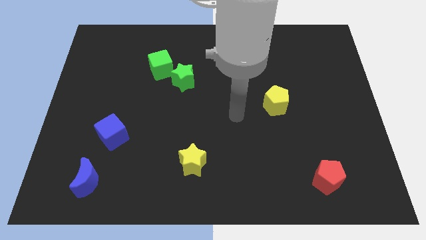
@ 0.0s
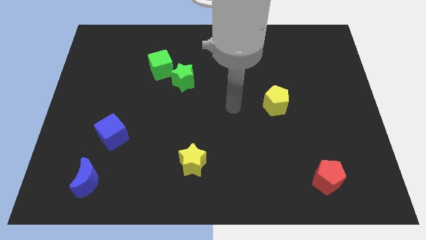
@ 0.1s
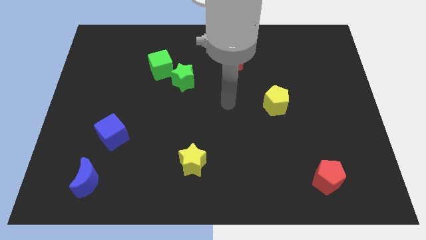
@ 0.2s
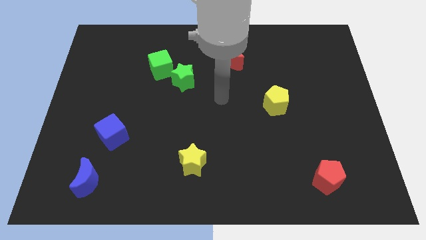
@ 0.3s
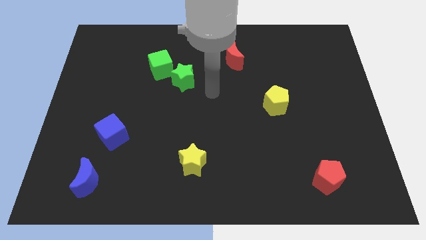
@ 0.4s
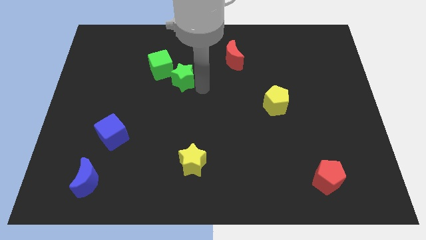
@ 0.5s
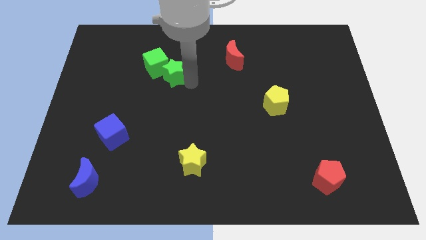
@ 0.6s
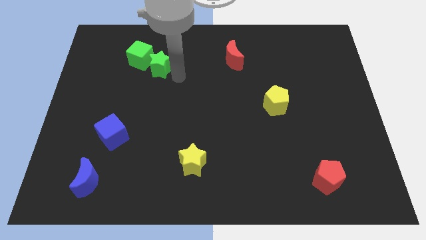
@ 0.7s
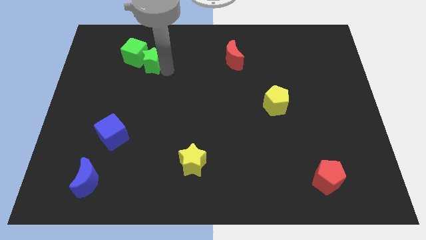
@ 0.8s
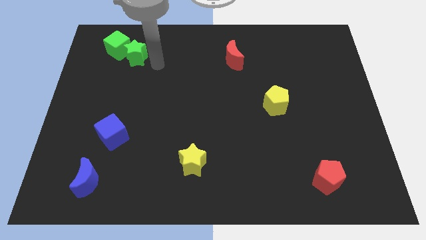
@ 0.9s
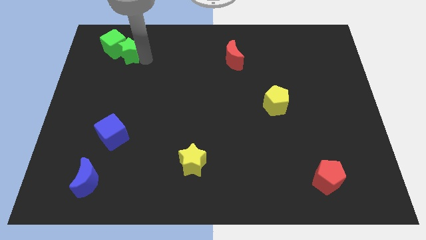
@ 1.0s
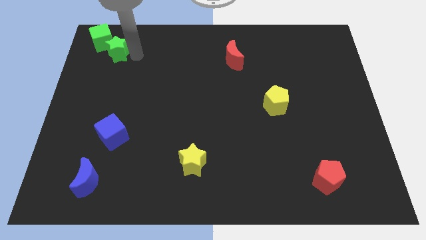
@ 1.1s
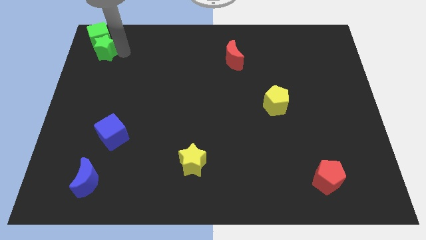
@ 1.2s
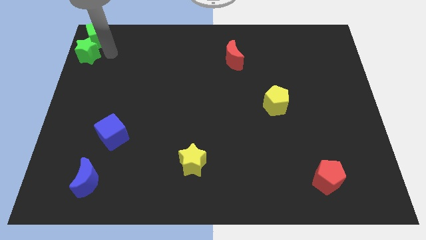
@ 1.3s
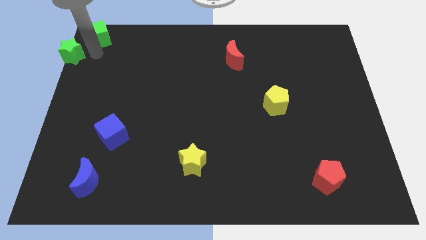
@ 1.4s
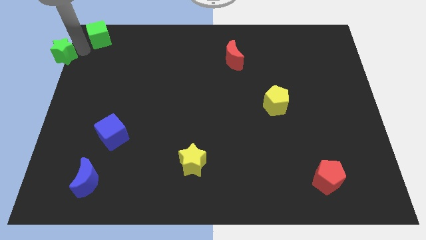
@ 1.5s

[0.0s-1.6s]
pull the green cube apart from the green star

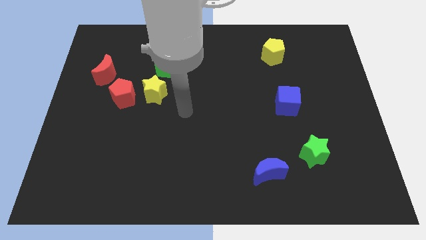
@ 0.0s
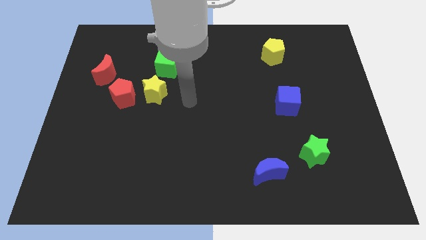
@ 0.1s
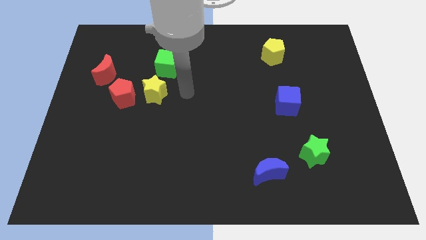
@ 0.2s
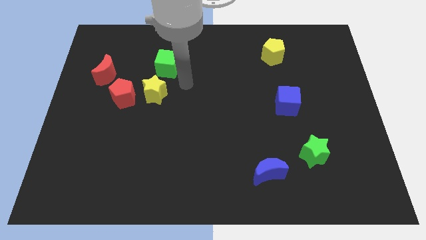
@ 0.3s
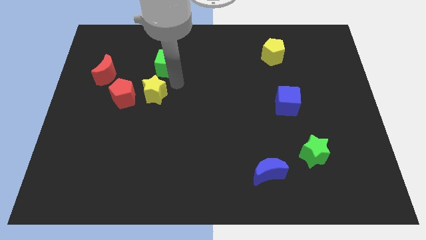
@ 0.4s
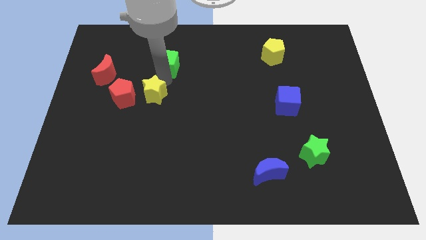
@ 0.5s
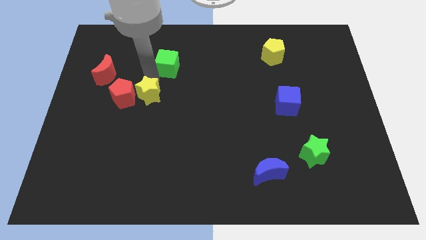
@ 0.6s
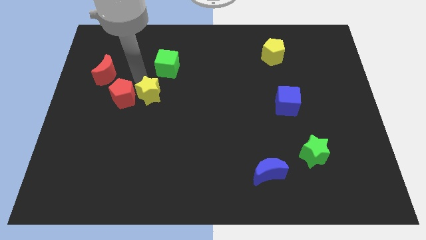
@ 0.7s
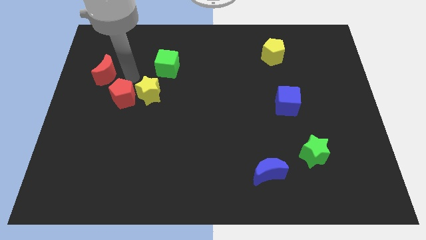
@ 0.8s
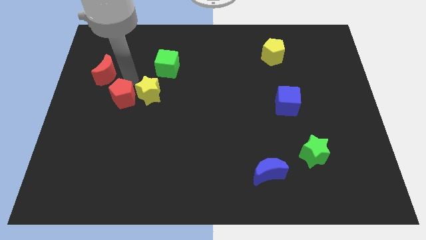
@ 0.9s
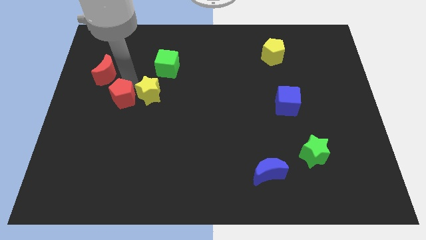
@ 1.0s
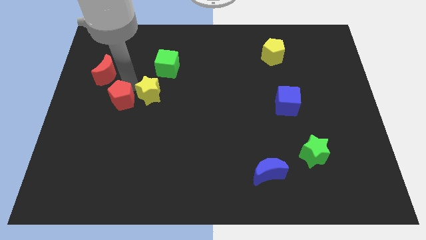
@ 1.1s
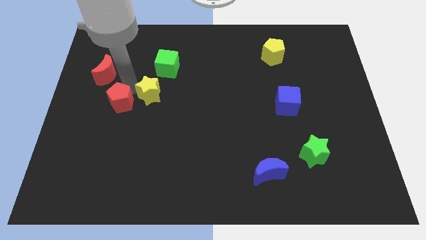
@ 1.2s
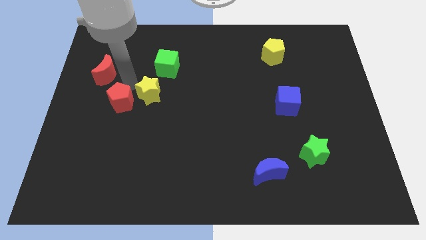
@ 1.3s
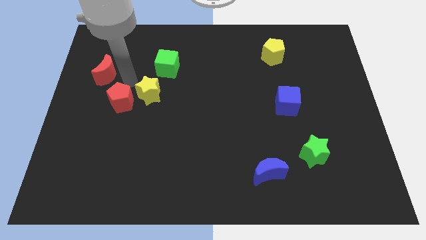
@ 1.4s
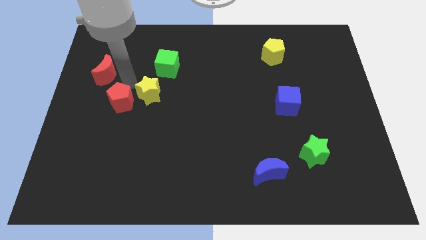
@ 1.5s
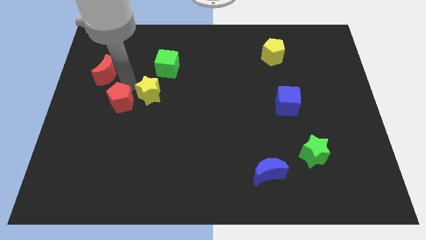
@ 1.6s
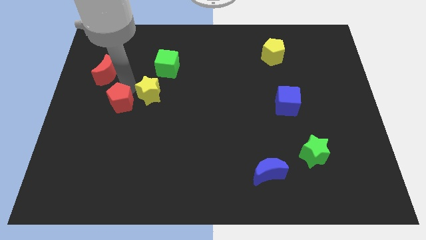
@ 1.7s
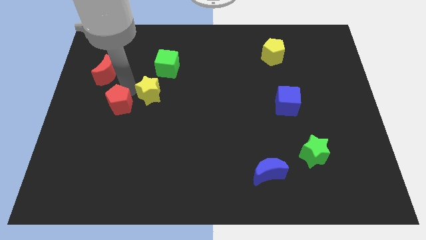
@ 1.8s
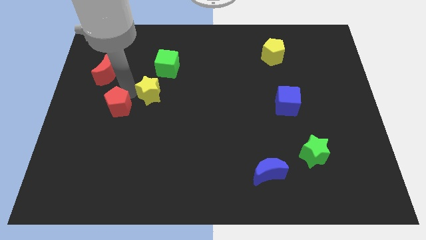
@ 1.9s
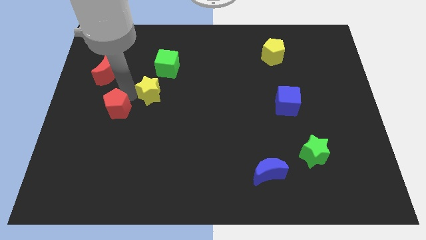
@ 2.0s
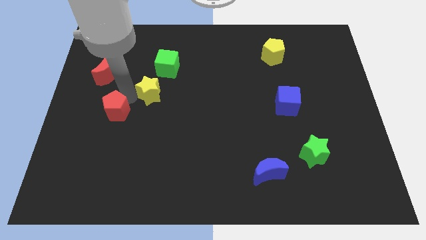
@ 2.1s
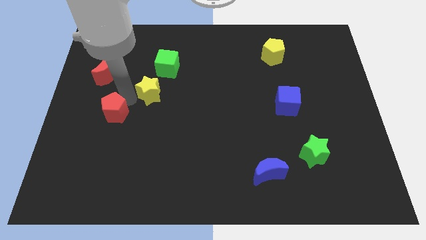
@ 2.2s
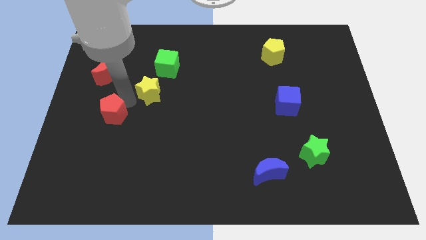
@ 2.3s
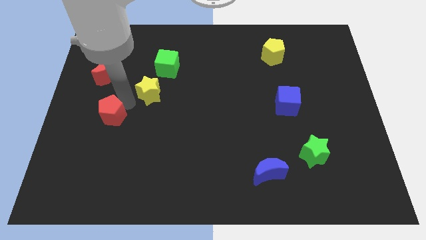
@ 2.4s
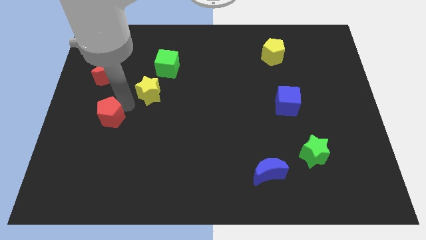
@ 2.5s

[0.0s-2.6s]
pull the red pentagon apart from the yellow star and red moon

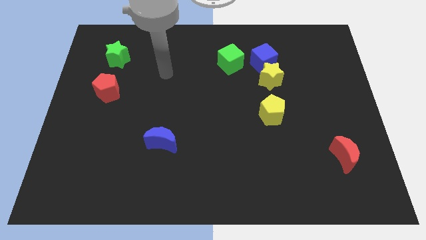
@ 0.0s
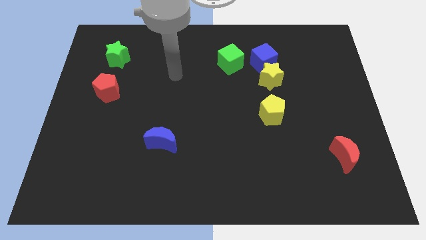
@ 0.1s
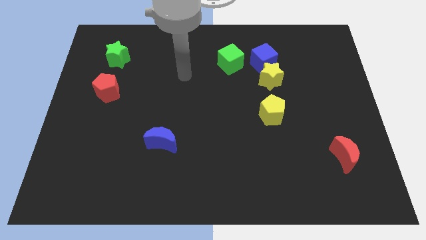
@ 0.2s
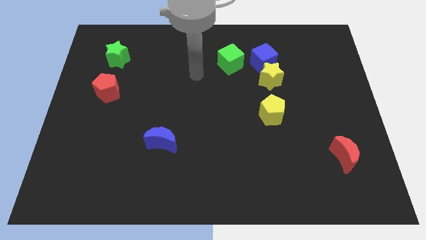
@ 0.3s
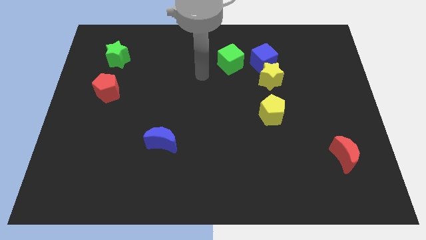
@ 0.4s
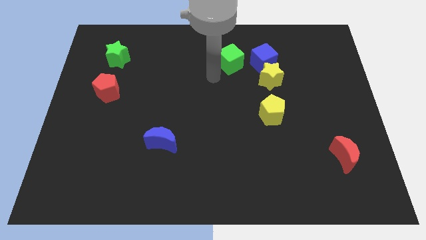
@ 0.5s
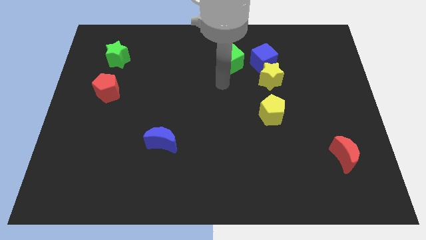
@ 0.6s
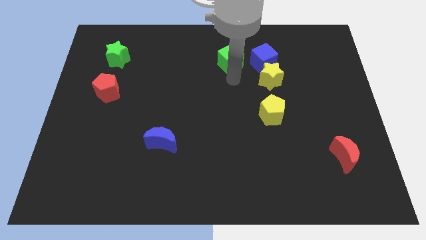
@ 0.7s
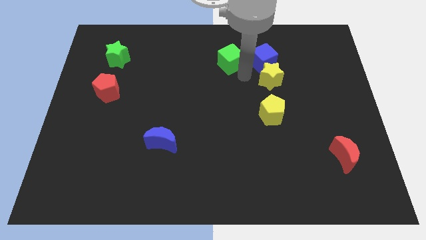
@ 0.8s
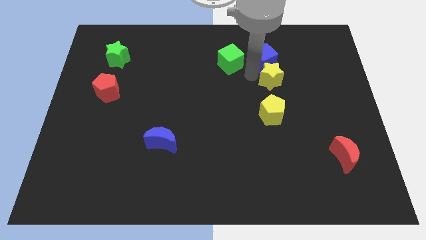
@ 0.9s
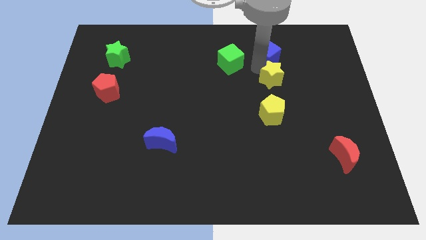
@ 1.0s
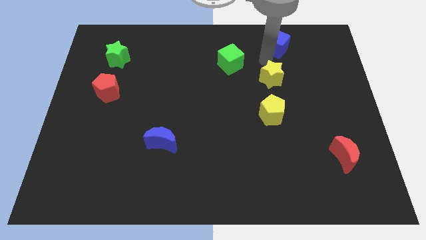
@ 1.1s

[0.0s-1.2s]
separate the yellow star from the blue cube

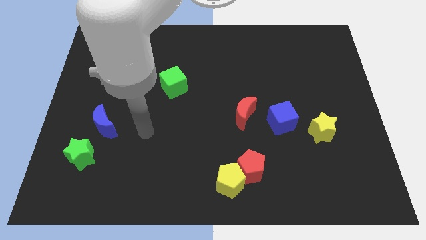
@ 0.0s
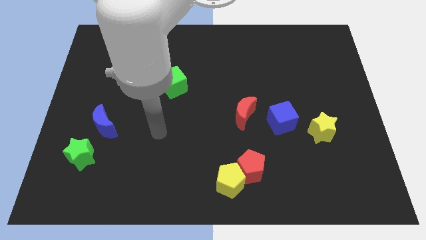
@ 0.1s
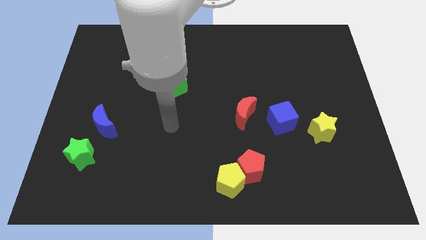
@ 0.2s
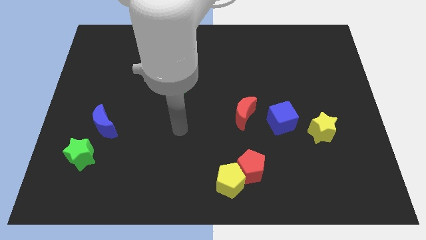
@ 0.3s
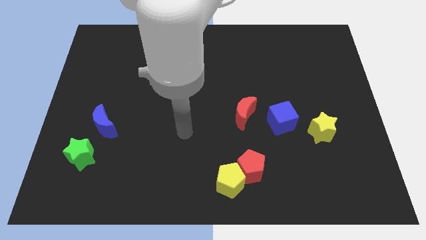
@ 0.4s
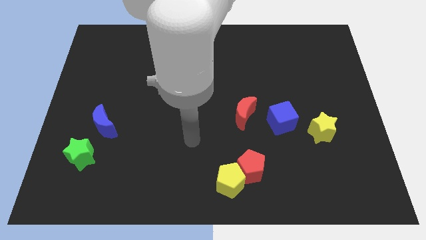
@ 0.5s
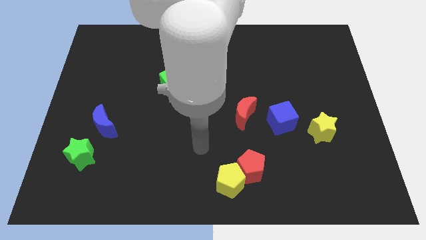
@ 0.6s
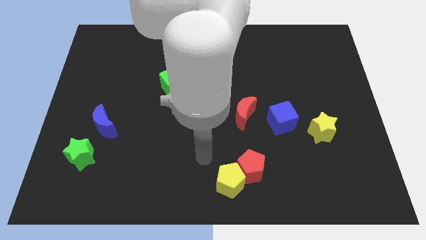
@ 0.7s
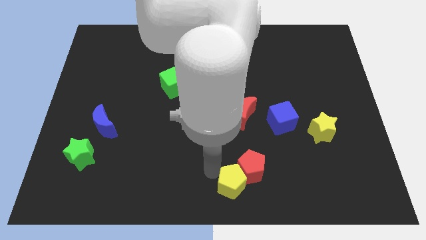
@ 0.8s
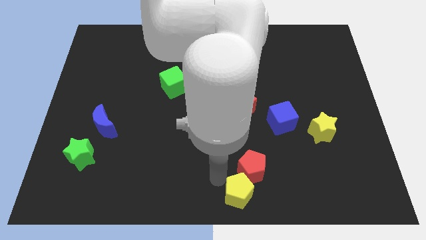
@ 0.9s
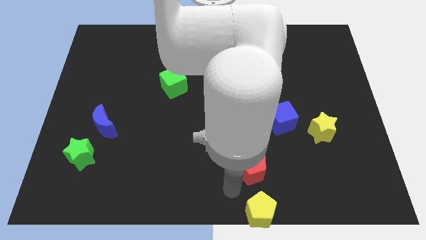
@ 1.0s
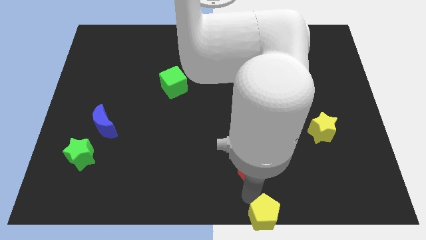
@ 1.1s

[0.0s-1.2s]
separate the red pentagon from the yellow pentagon

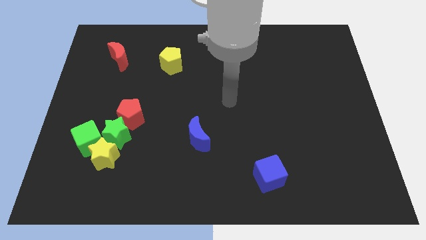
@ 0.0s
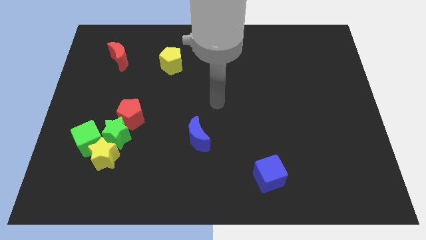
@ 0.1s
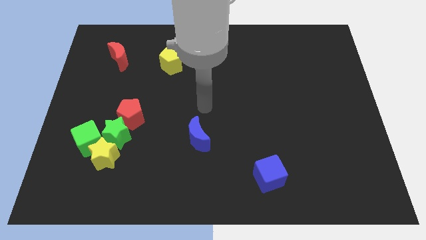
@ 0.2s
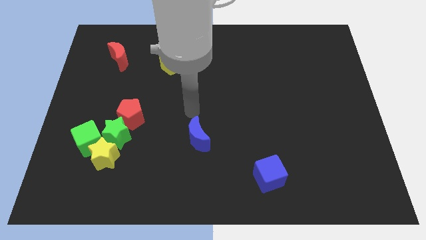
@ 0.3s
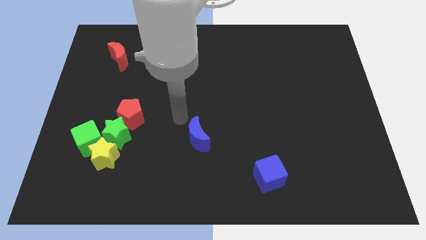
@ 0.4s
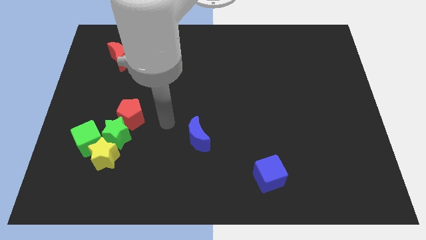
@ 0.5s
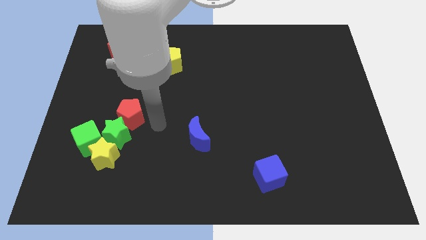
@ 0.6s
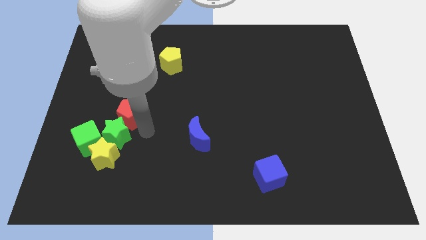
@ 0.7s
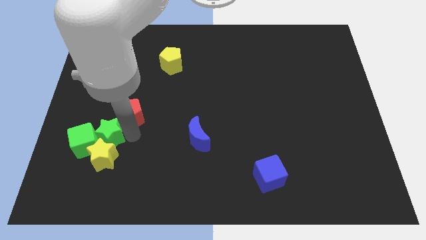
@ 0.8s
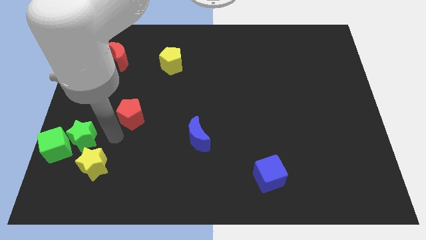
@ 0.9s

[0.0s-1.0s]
move the red pentagon away from the green star

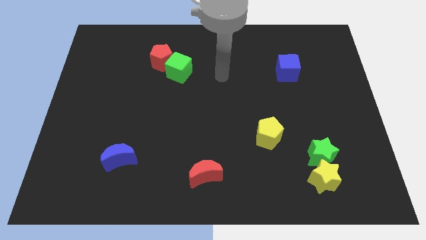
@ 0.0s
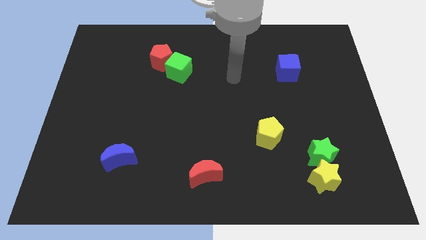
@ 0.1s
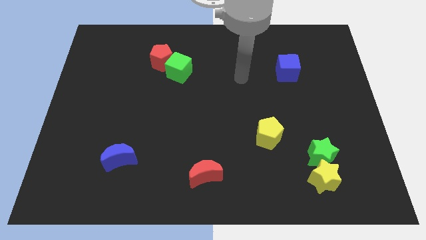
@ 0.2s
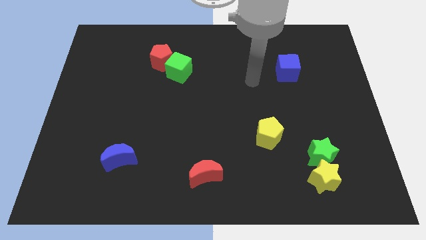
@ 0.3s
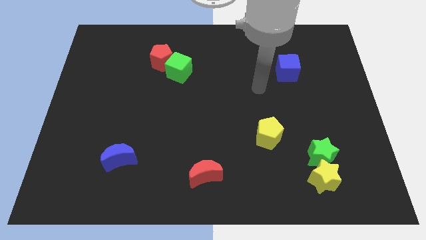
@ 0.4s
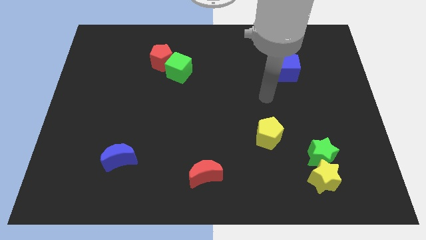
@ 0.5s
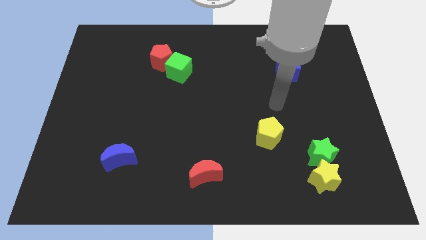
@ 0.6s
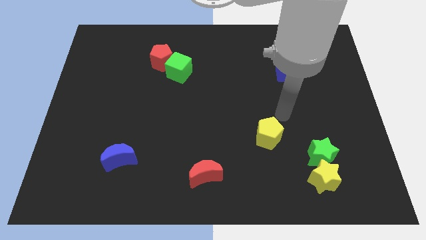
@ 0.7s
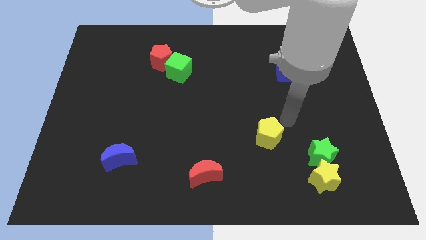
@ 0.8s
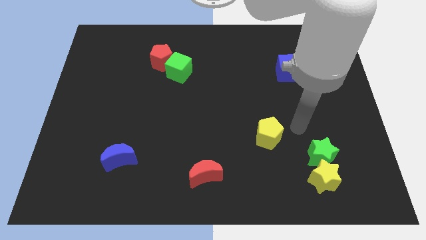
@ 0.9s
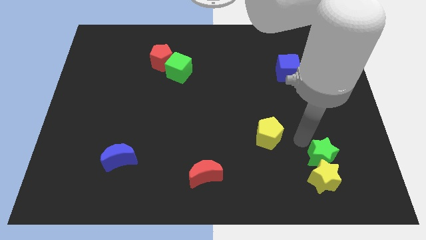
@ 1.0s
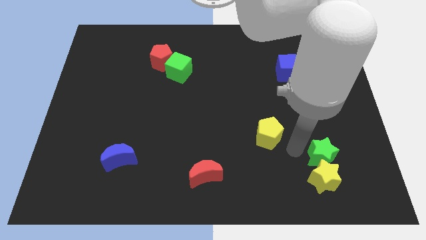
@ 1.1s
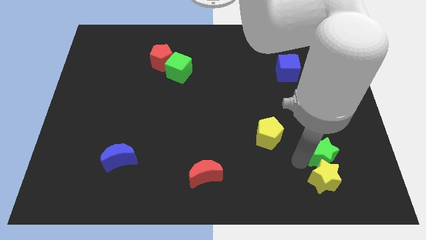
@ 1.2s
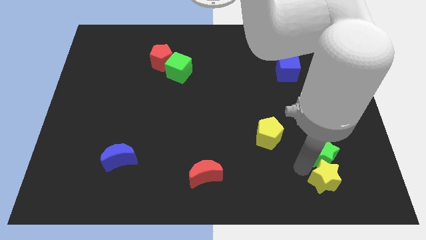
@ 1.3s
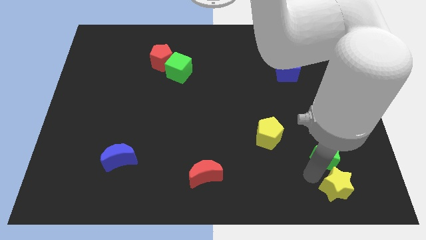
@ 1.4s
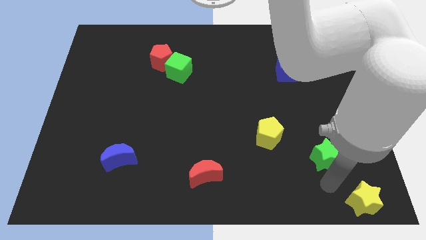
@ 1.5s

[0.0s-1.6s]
move the green star away from the yellow star
